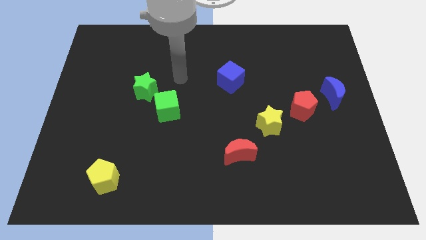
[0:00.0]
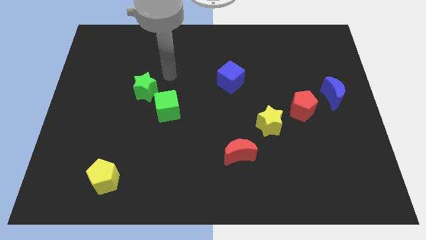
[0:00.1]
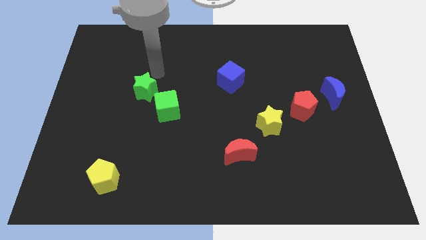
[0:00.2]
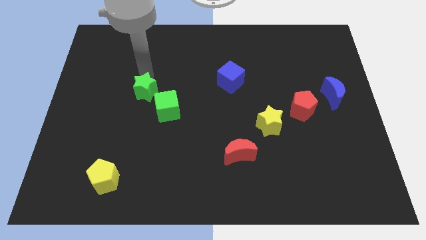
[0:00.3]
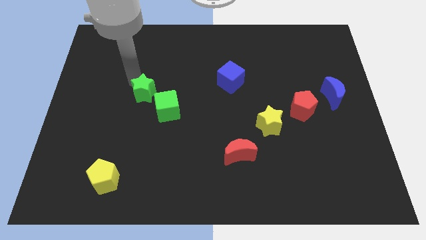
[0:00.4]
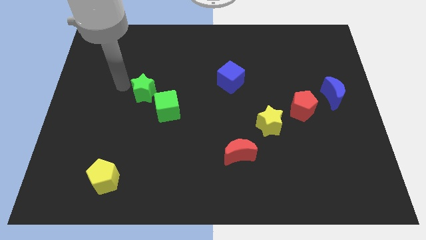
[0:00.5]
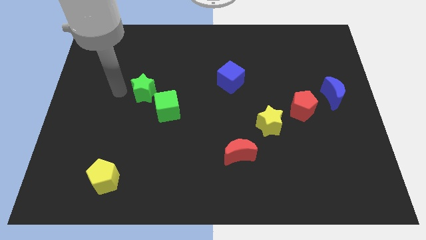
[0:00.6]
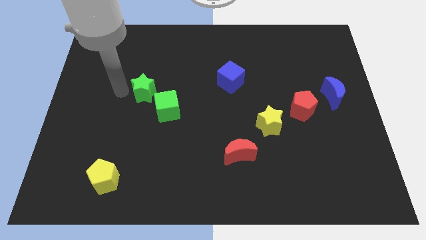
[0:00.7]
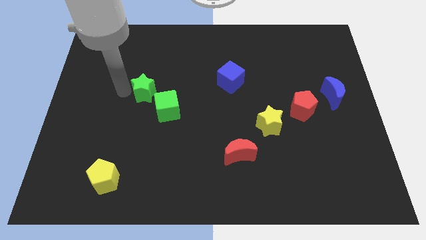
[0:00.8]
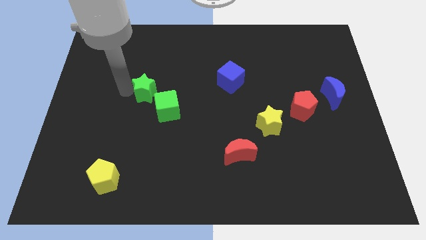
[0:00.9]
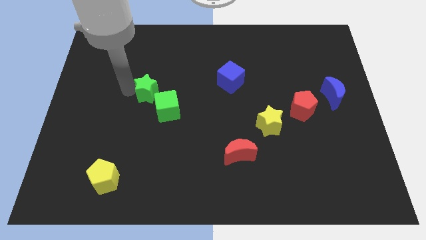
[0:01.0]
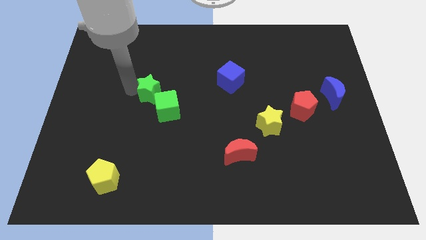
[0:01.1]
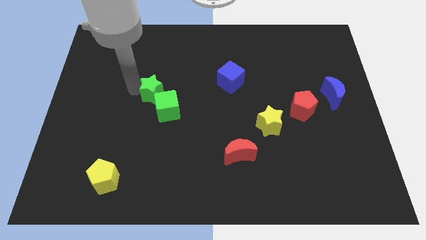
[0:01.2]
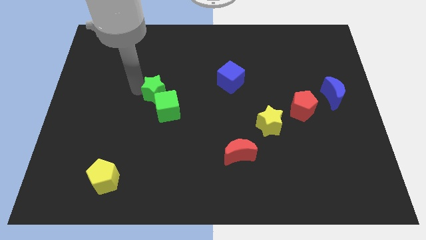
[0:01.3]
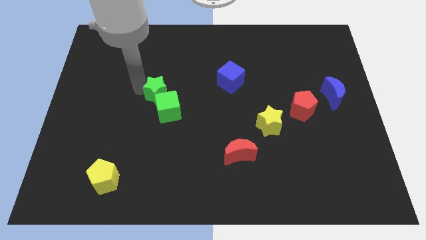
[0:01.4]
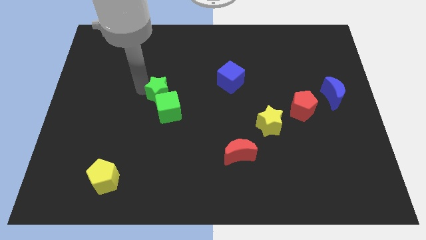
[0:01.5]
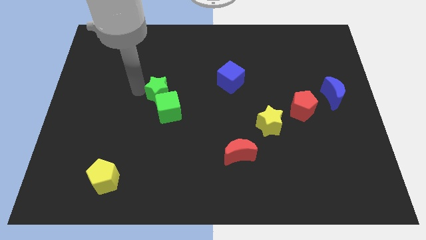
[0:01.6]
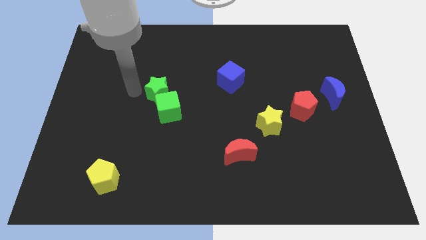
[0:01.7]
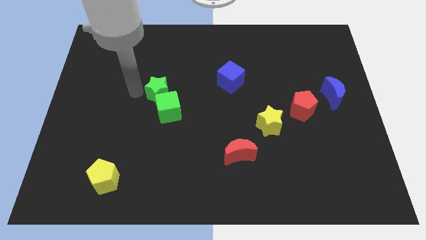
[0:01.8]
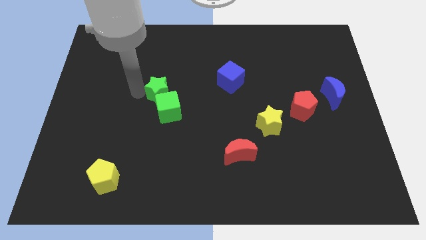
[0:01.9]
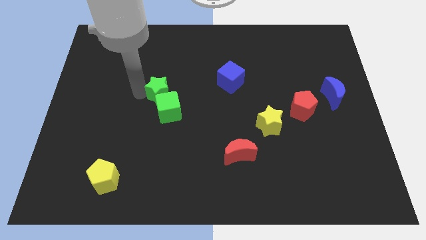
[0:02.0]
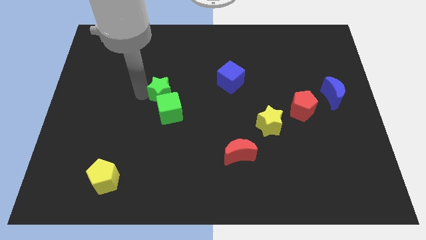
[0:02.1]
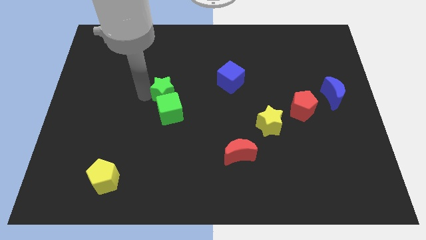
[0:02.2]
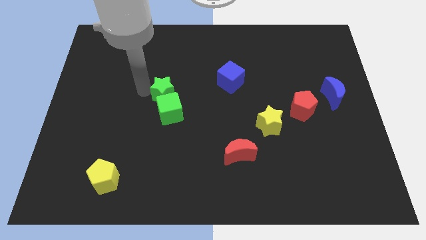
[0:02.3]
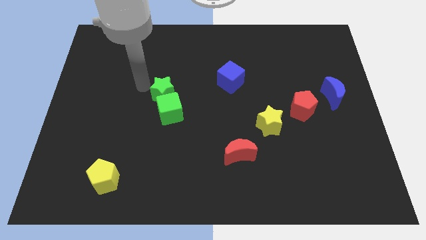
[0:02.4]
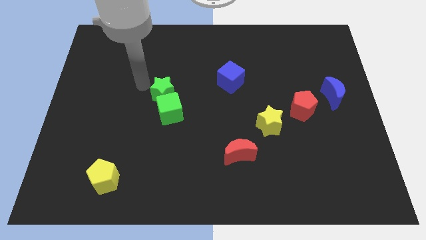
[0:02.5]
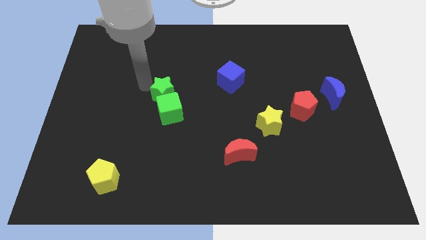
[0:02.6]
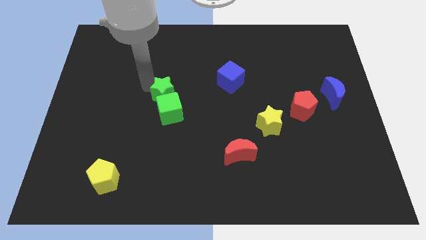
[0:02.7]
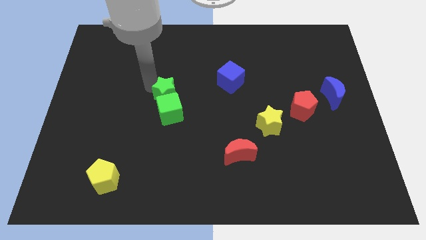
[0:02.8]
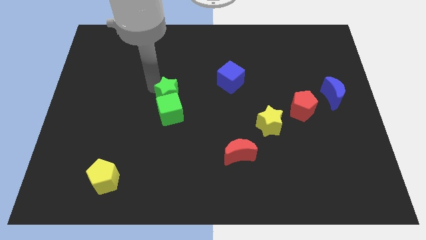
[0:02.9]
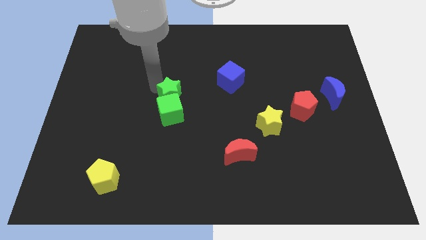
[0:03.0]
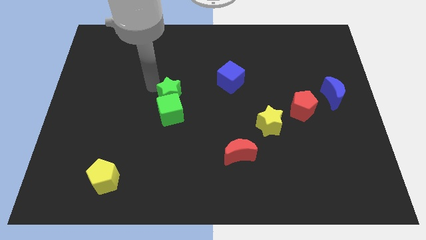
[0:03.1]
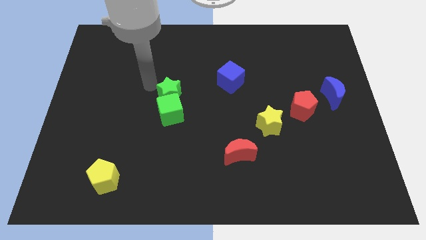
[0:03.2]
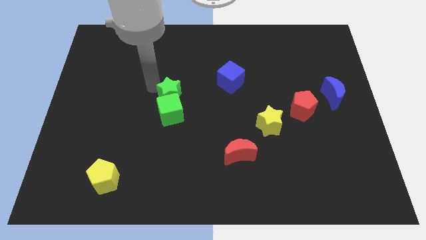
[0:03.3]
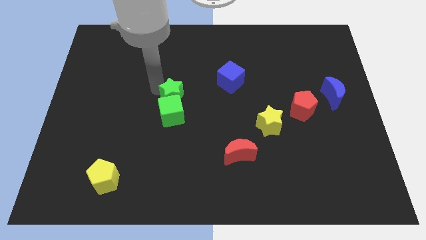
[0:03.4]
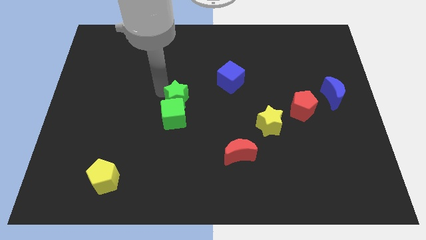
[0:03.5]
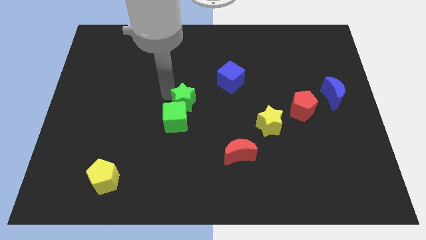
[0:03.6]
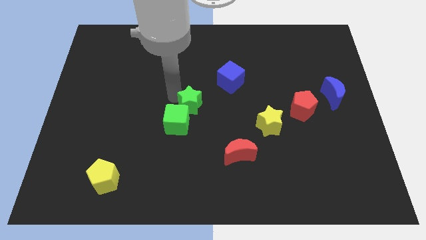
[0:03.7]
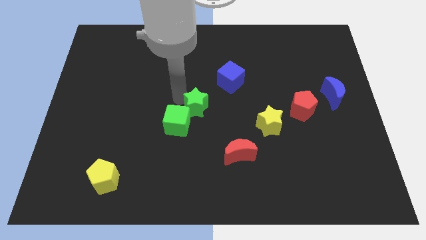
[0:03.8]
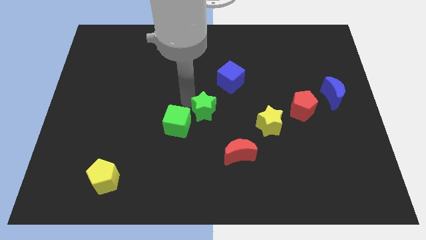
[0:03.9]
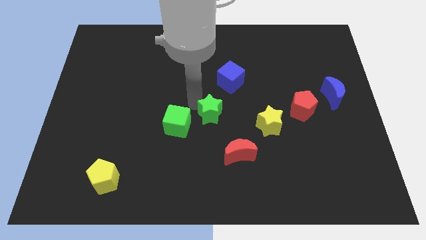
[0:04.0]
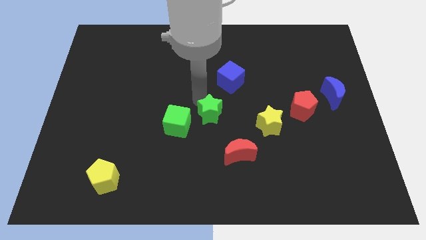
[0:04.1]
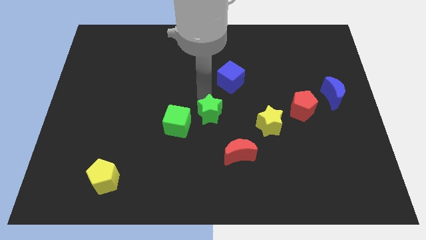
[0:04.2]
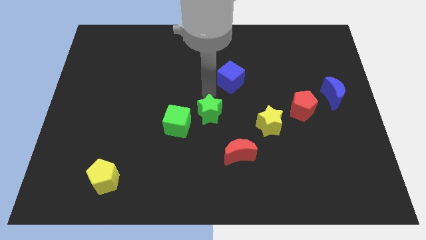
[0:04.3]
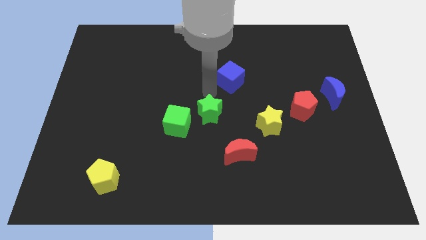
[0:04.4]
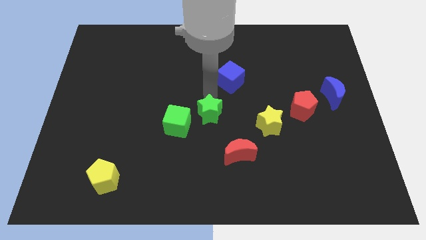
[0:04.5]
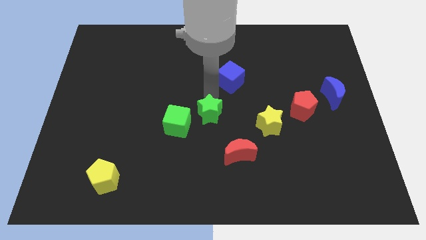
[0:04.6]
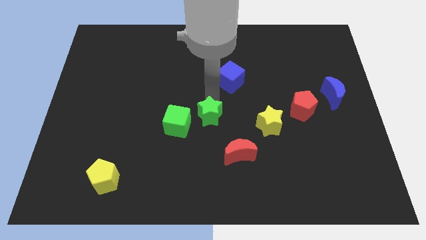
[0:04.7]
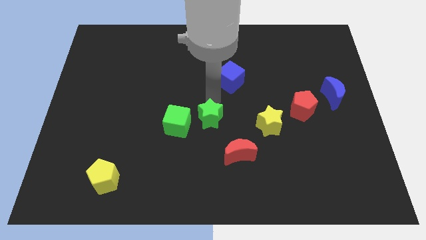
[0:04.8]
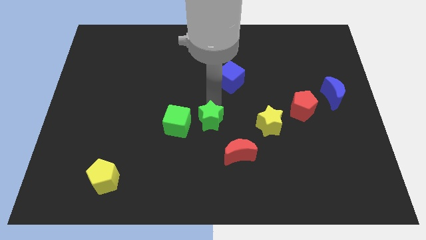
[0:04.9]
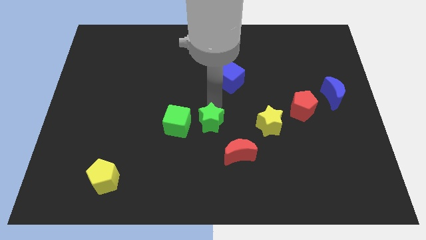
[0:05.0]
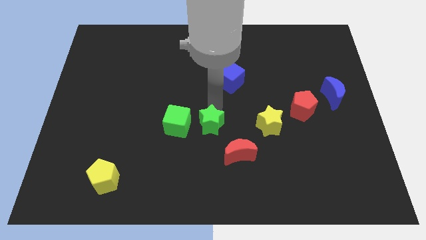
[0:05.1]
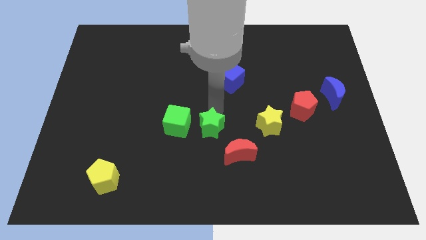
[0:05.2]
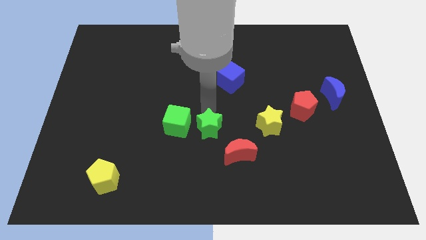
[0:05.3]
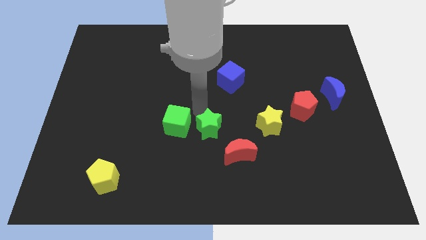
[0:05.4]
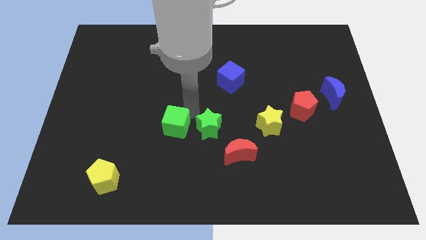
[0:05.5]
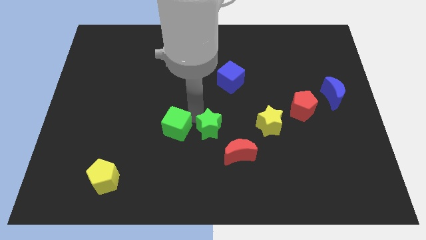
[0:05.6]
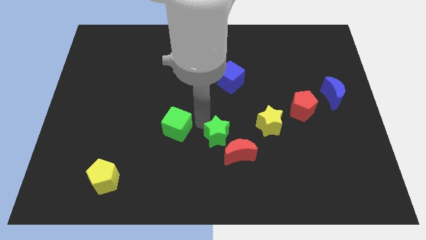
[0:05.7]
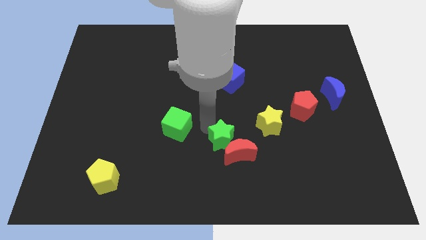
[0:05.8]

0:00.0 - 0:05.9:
move the green star towards the red moon

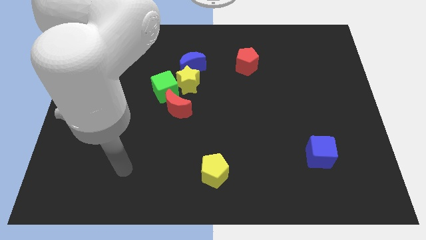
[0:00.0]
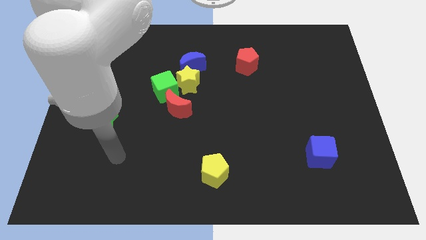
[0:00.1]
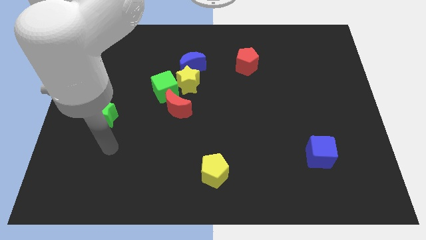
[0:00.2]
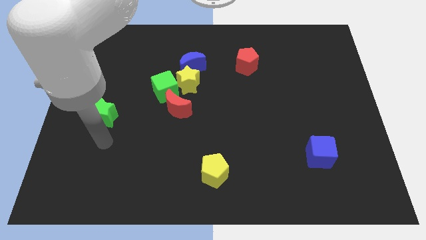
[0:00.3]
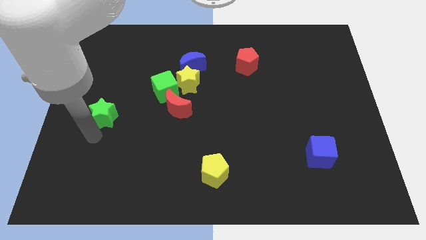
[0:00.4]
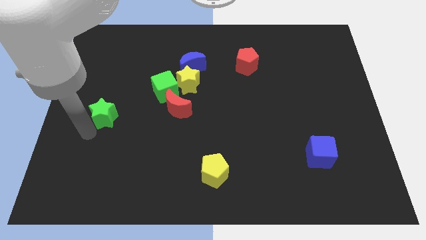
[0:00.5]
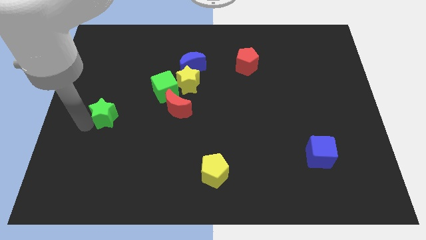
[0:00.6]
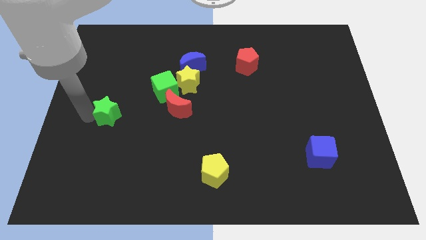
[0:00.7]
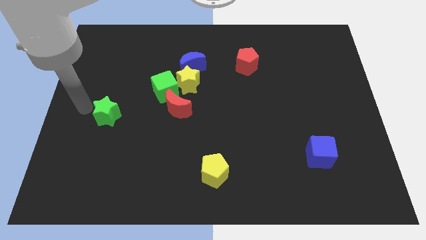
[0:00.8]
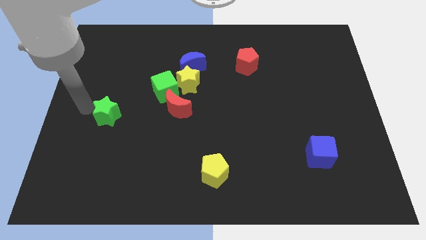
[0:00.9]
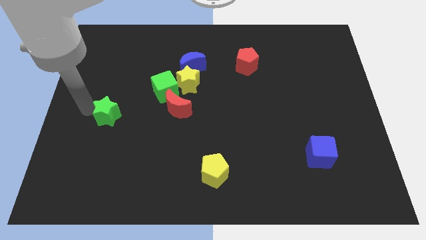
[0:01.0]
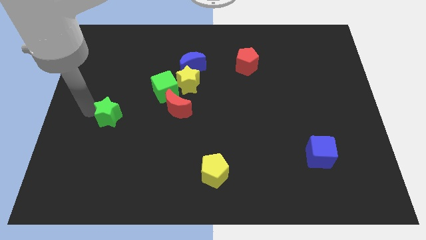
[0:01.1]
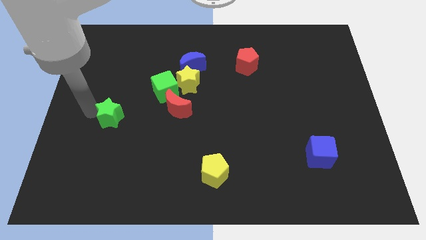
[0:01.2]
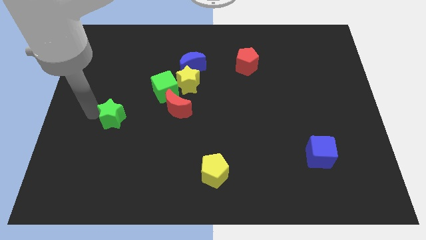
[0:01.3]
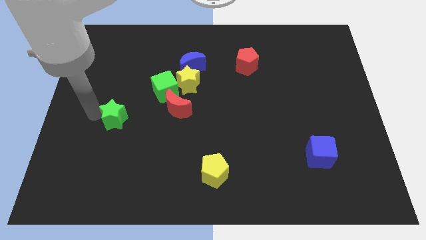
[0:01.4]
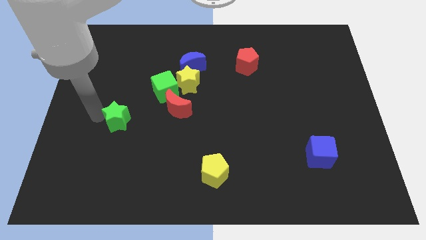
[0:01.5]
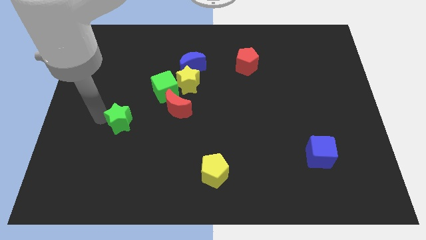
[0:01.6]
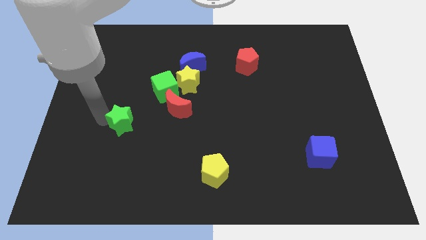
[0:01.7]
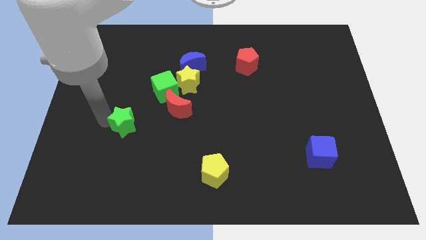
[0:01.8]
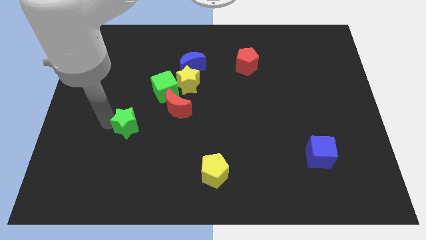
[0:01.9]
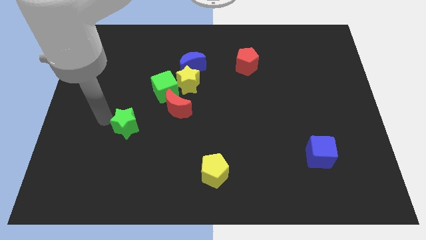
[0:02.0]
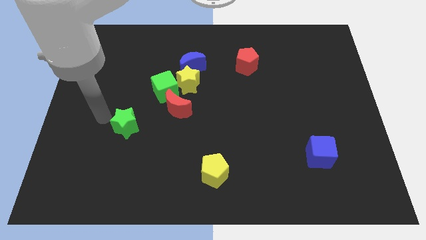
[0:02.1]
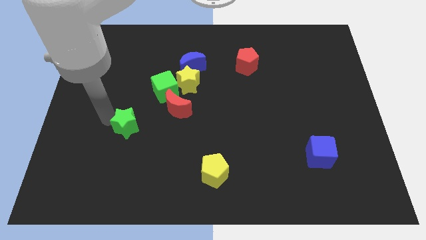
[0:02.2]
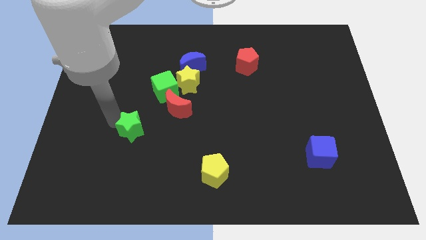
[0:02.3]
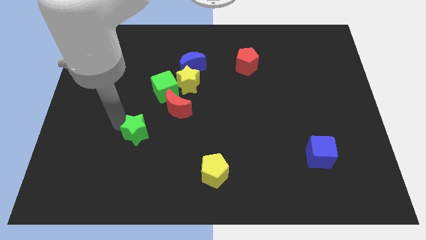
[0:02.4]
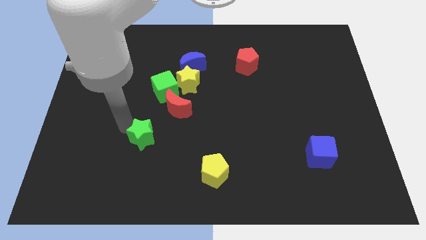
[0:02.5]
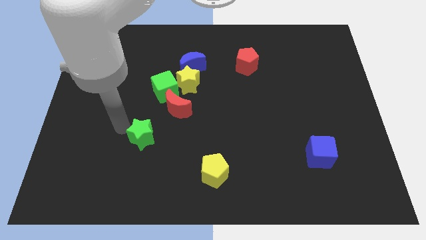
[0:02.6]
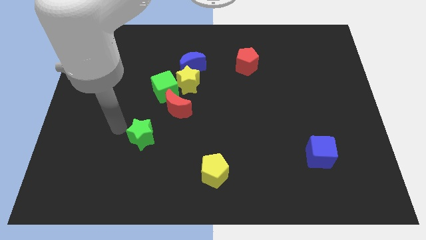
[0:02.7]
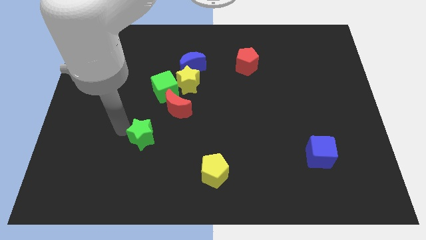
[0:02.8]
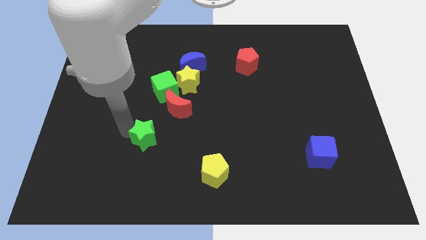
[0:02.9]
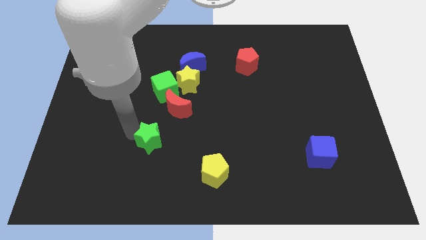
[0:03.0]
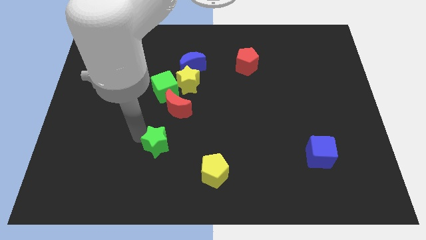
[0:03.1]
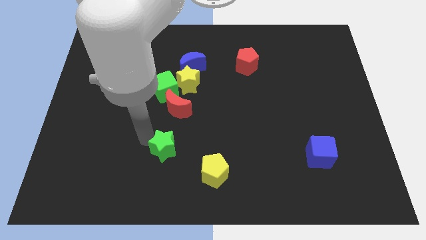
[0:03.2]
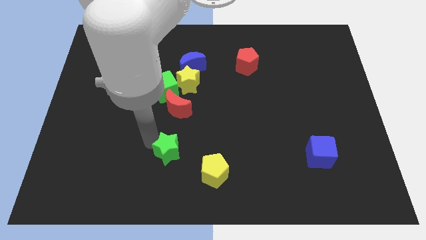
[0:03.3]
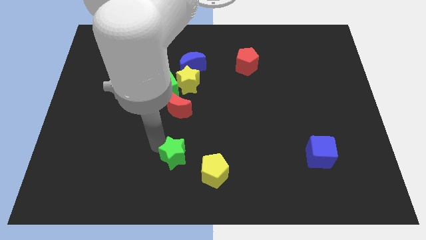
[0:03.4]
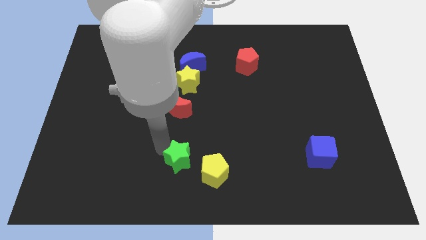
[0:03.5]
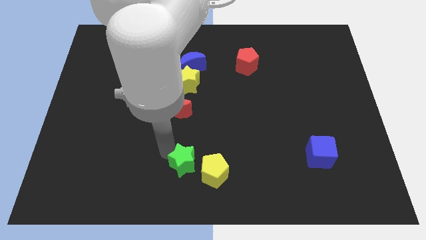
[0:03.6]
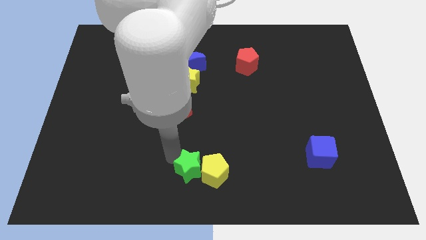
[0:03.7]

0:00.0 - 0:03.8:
push the green star close to the yellow pentagon
